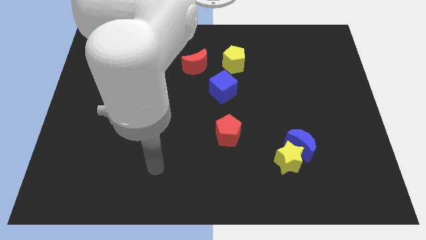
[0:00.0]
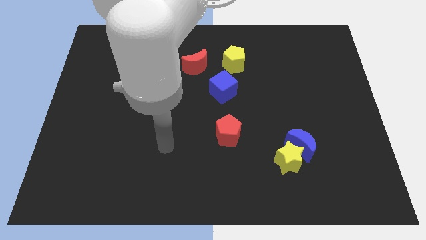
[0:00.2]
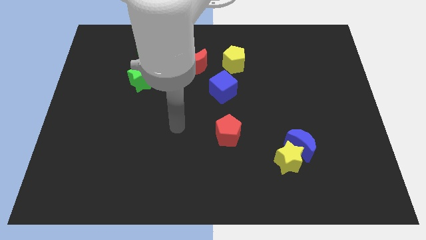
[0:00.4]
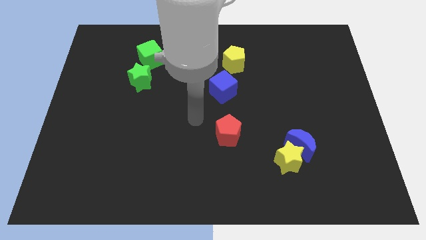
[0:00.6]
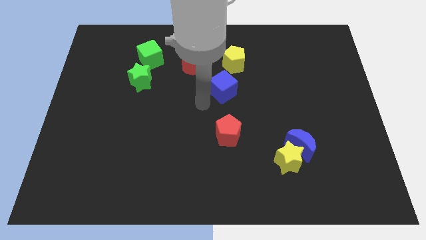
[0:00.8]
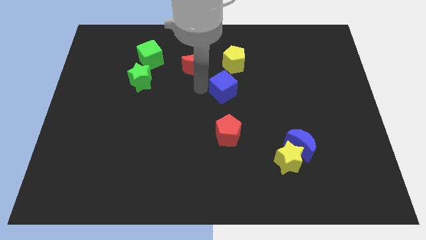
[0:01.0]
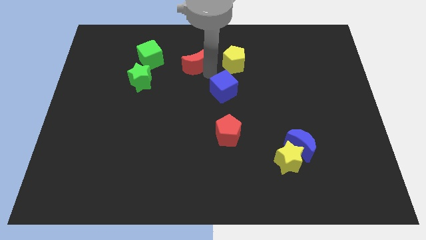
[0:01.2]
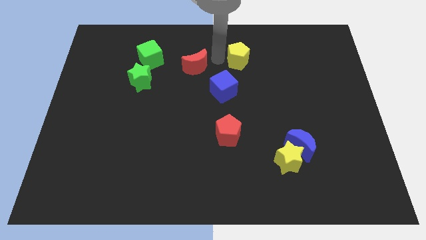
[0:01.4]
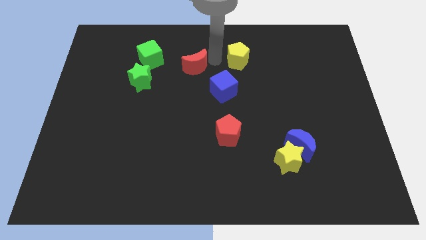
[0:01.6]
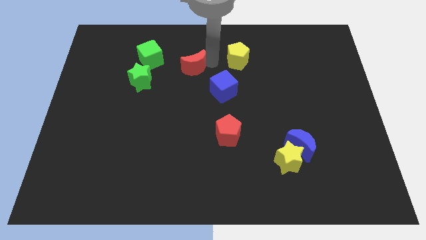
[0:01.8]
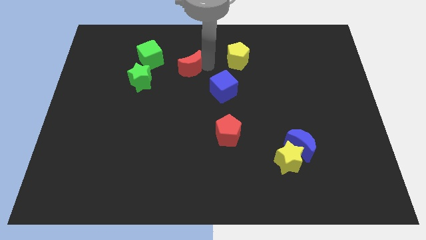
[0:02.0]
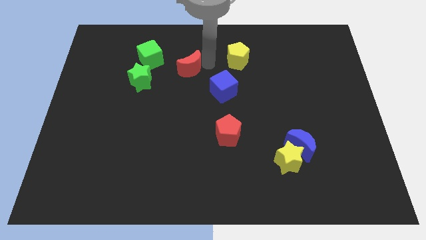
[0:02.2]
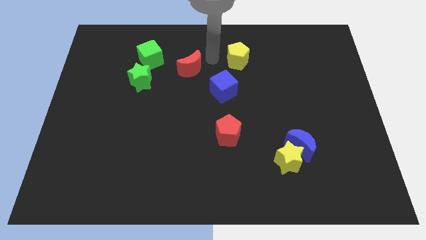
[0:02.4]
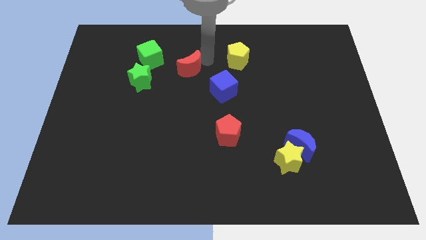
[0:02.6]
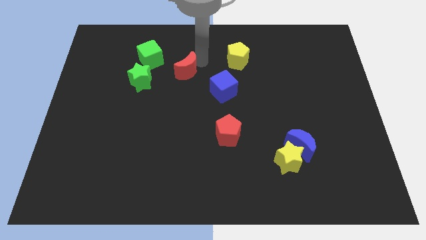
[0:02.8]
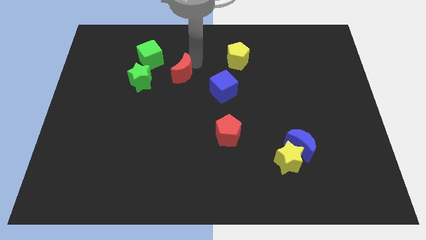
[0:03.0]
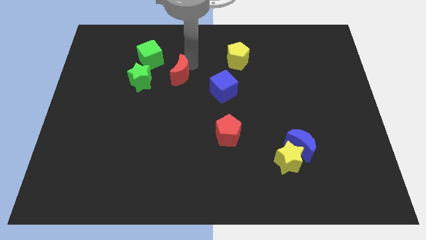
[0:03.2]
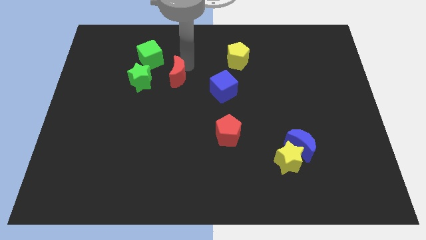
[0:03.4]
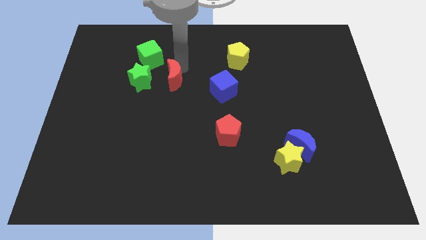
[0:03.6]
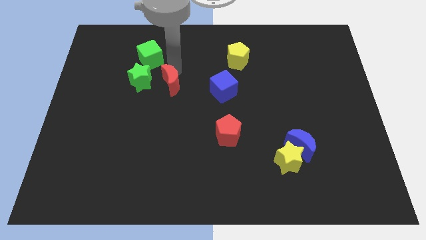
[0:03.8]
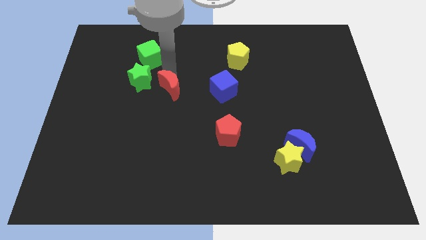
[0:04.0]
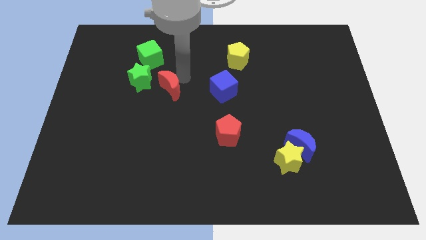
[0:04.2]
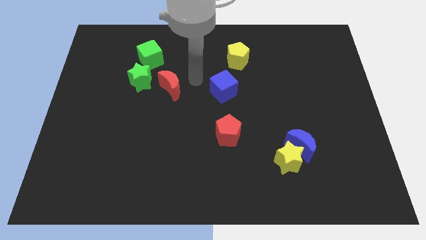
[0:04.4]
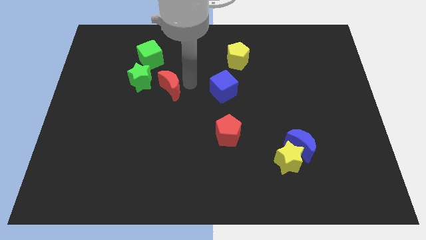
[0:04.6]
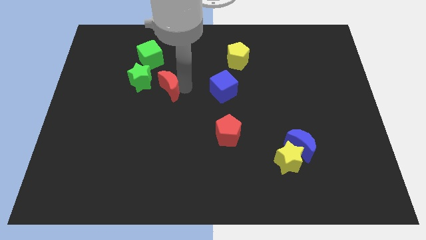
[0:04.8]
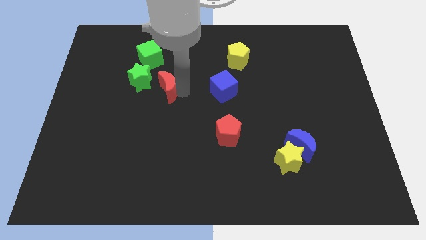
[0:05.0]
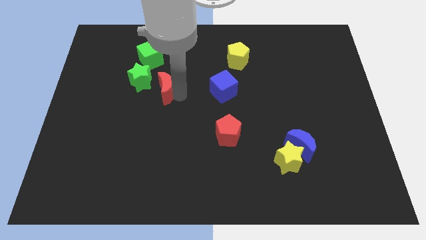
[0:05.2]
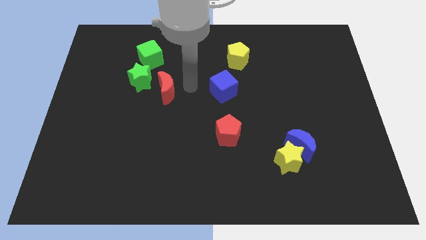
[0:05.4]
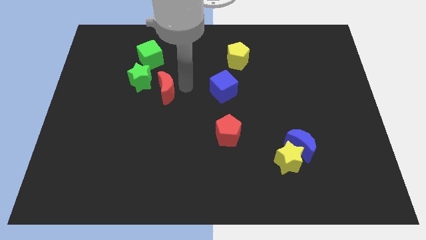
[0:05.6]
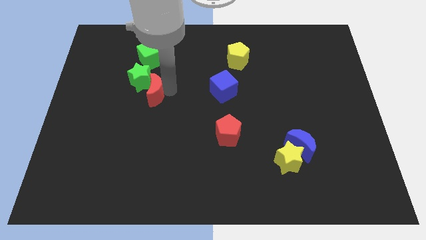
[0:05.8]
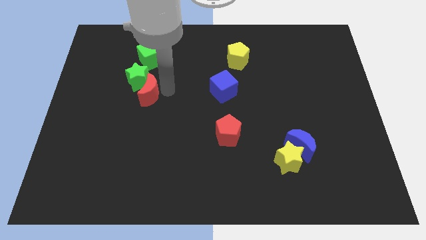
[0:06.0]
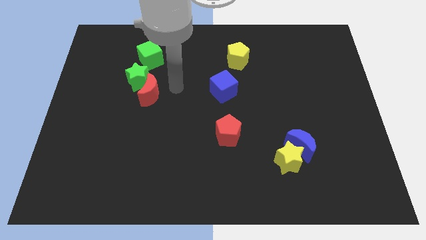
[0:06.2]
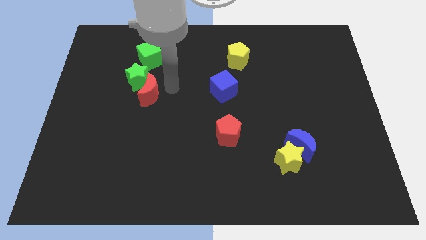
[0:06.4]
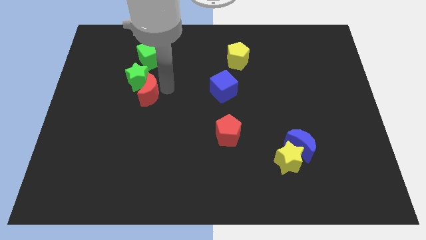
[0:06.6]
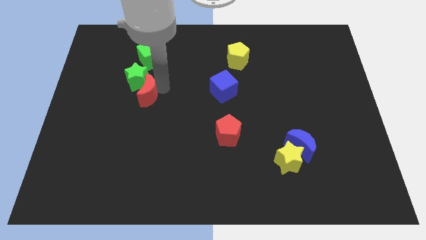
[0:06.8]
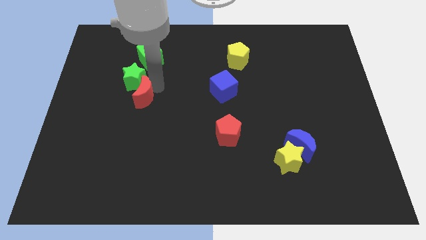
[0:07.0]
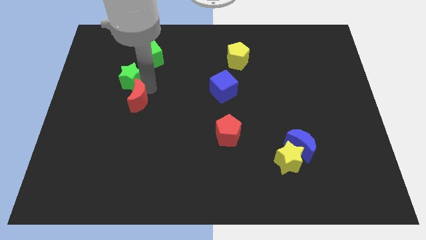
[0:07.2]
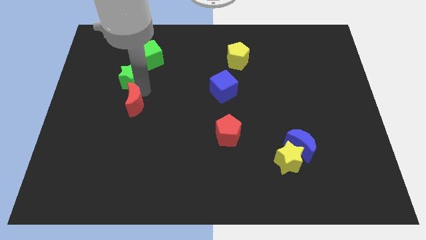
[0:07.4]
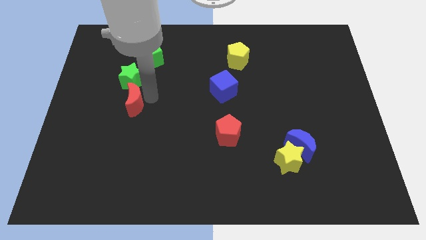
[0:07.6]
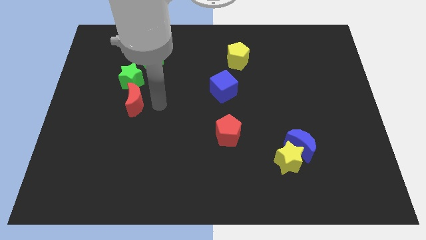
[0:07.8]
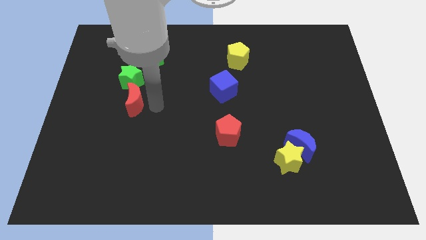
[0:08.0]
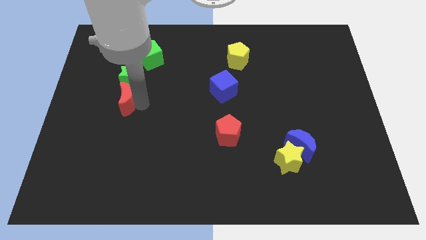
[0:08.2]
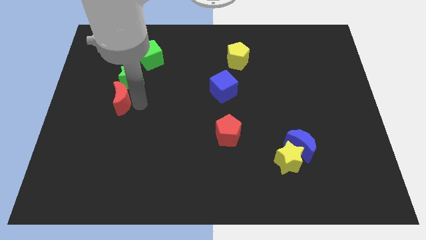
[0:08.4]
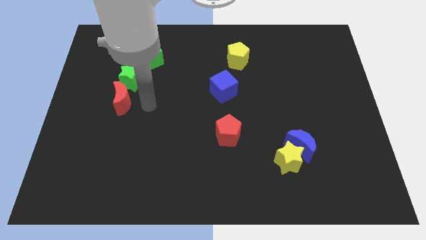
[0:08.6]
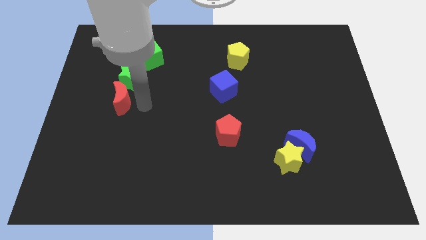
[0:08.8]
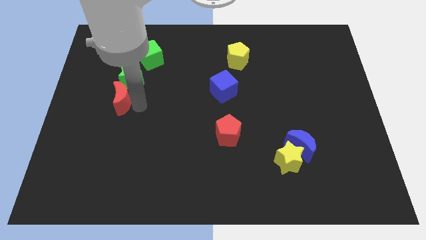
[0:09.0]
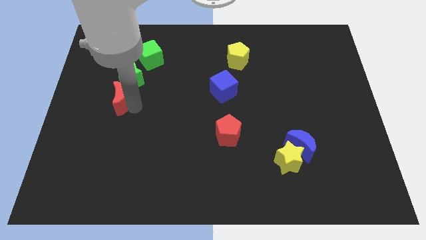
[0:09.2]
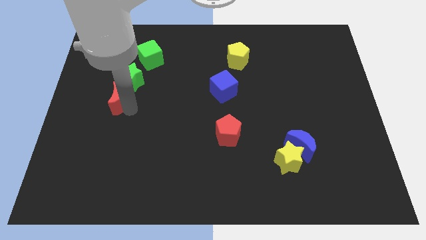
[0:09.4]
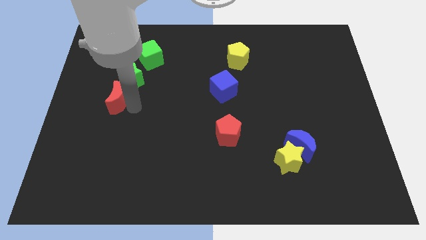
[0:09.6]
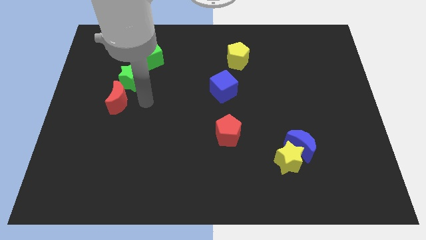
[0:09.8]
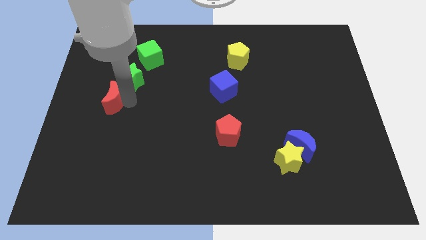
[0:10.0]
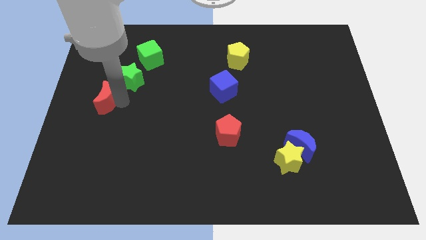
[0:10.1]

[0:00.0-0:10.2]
put the red moon to the center left

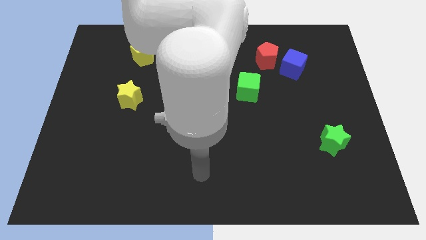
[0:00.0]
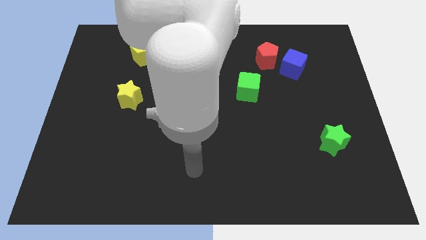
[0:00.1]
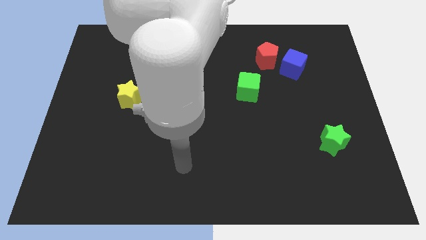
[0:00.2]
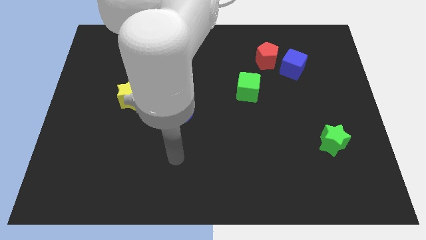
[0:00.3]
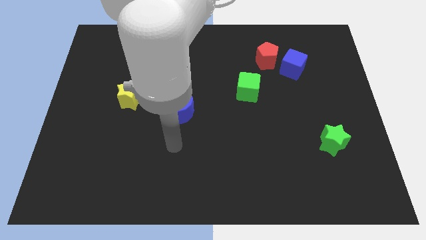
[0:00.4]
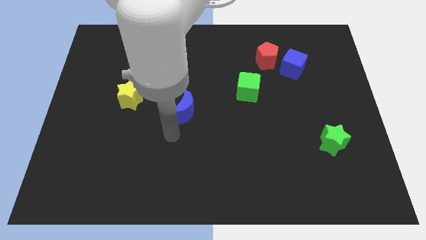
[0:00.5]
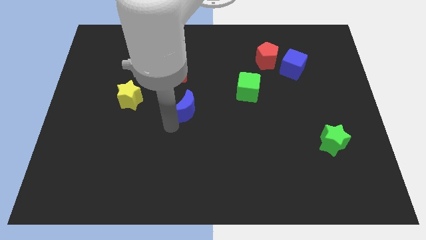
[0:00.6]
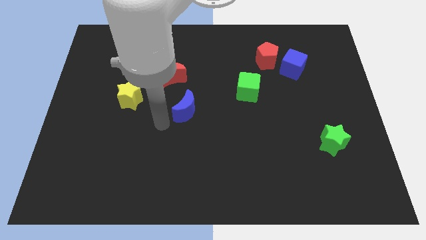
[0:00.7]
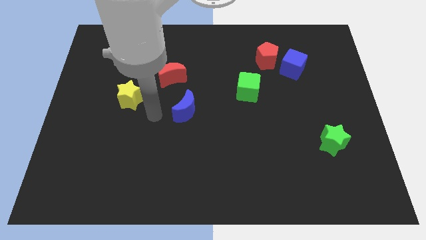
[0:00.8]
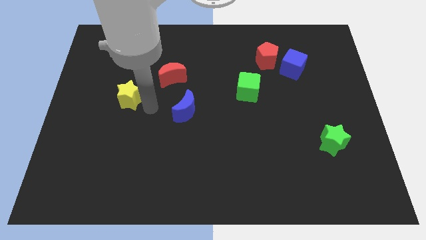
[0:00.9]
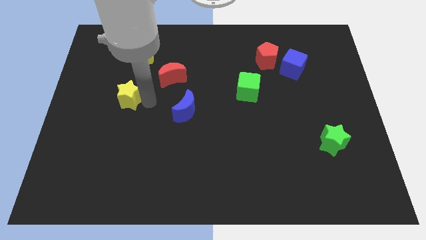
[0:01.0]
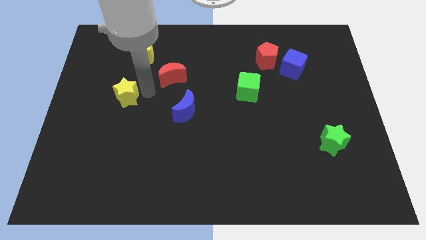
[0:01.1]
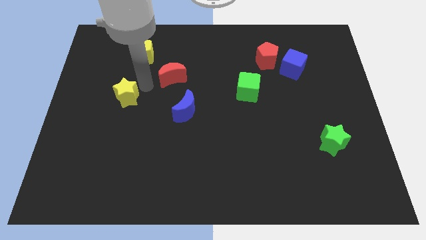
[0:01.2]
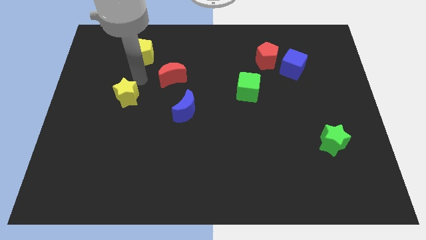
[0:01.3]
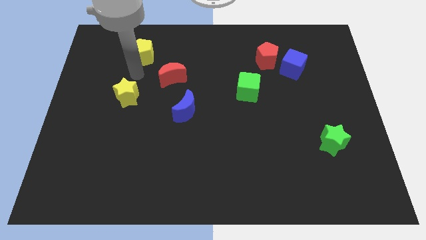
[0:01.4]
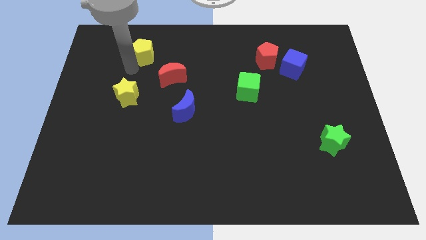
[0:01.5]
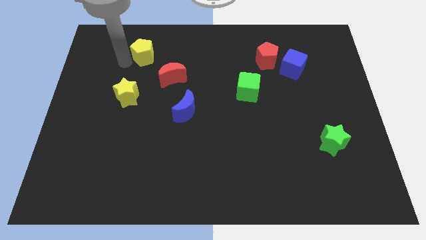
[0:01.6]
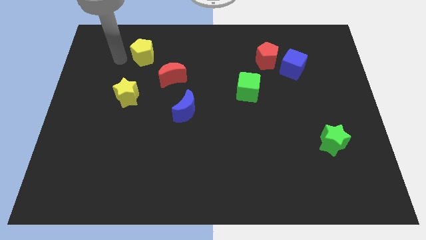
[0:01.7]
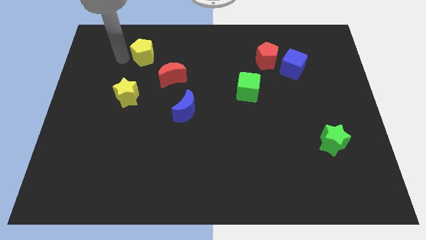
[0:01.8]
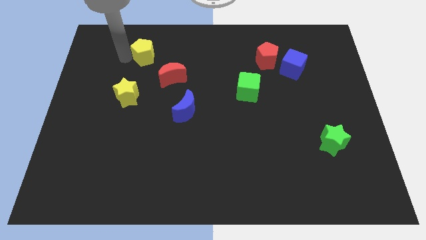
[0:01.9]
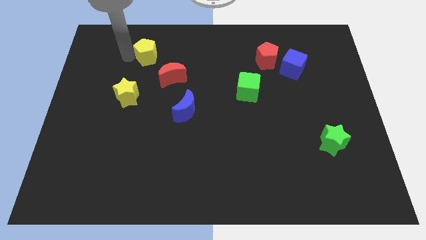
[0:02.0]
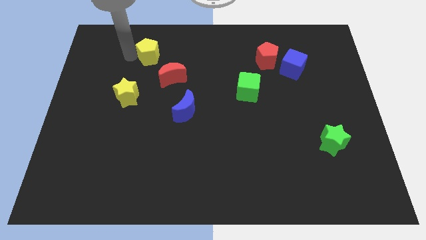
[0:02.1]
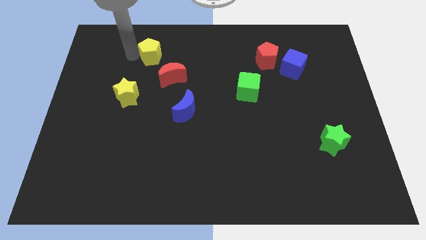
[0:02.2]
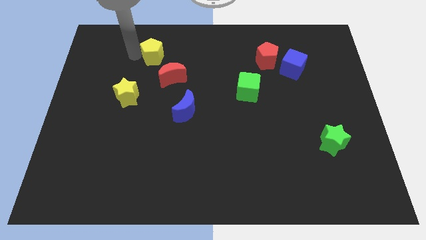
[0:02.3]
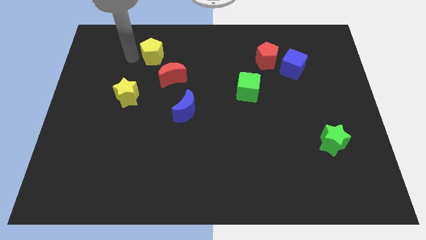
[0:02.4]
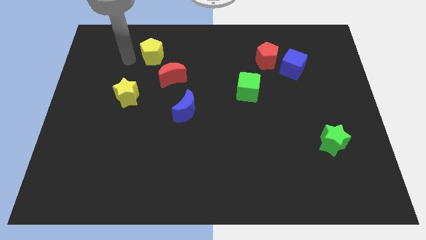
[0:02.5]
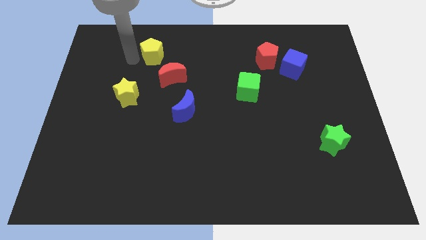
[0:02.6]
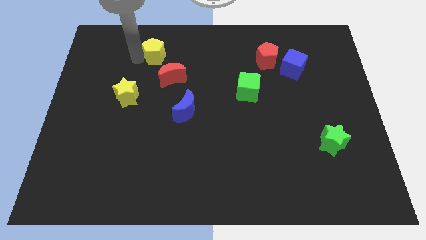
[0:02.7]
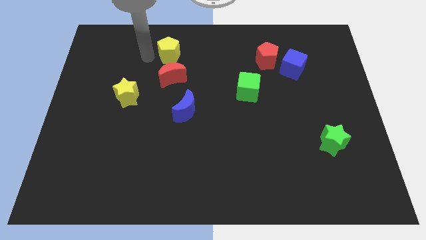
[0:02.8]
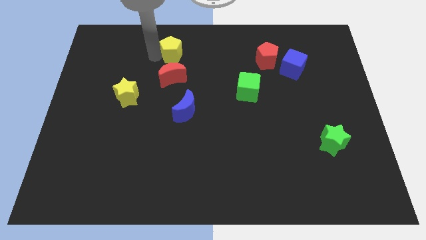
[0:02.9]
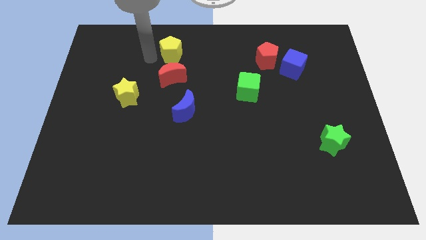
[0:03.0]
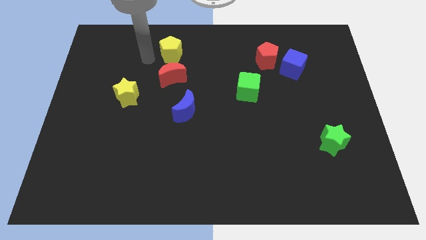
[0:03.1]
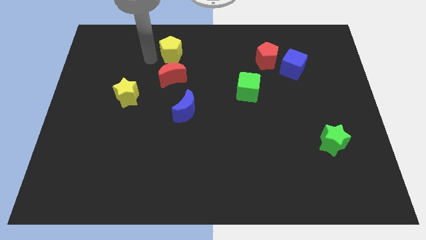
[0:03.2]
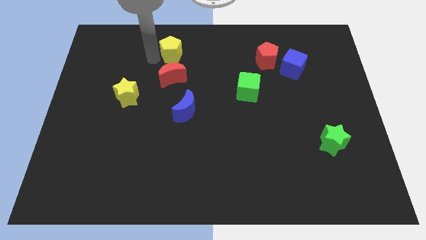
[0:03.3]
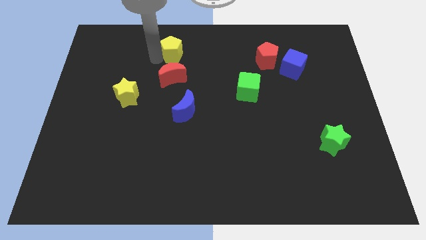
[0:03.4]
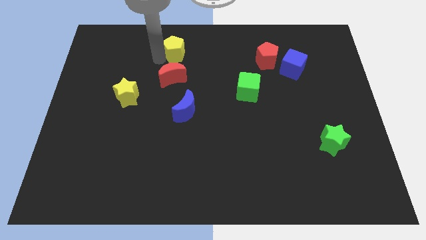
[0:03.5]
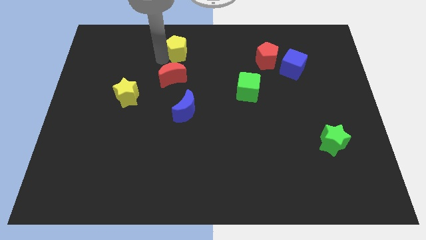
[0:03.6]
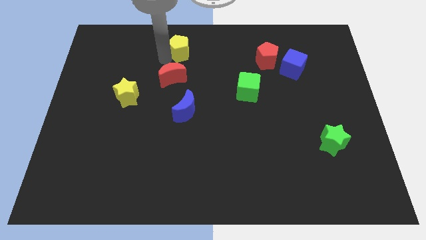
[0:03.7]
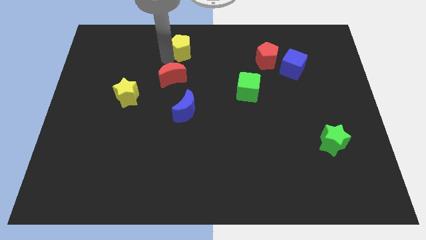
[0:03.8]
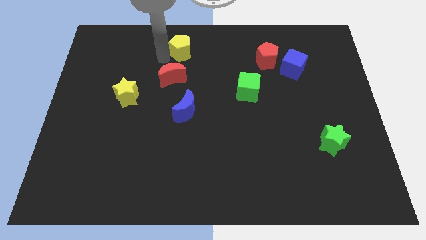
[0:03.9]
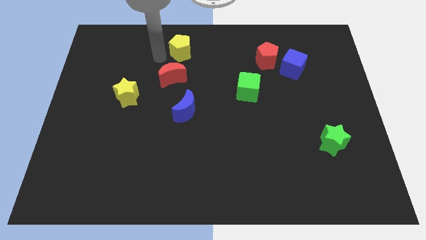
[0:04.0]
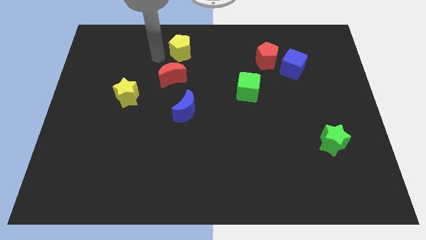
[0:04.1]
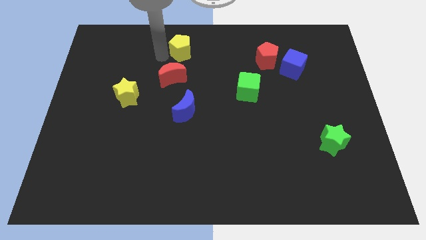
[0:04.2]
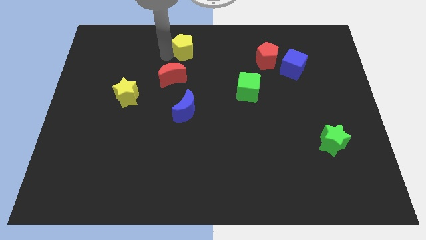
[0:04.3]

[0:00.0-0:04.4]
push the yellow pentagon to the top side
